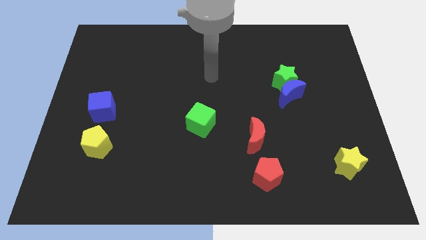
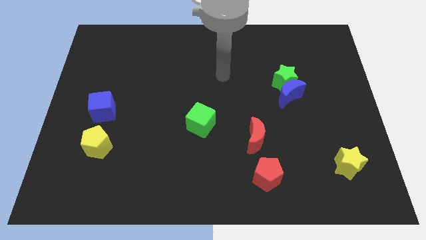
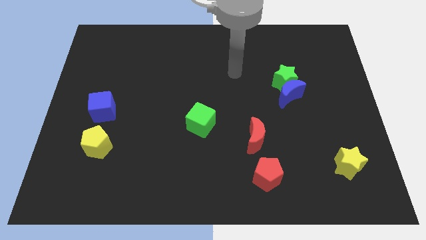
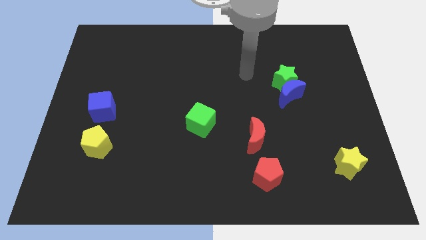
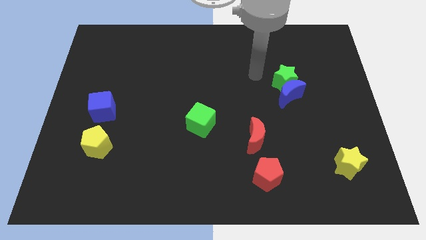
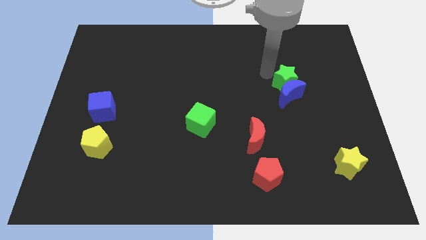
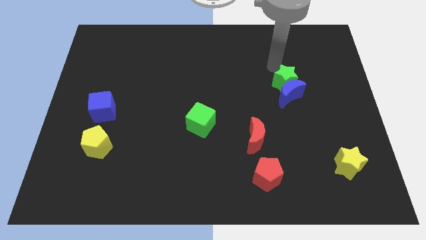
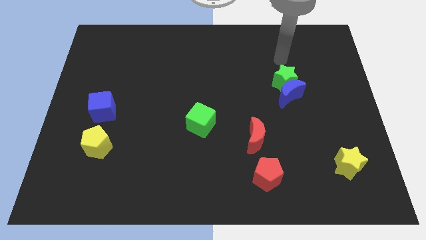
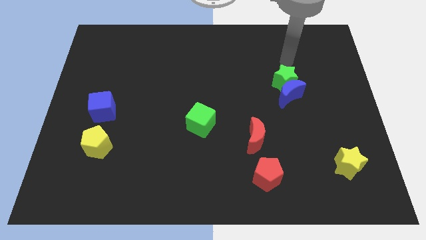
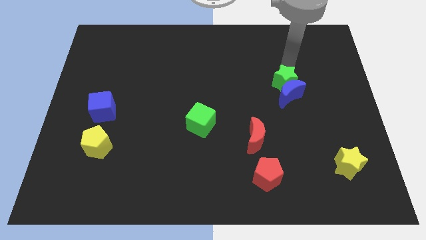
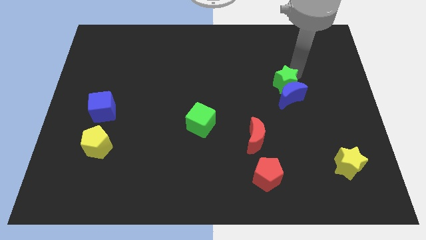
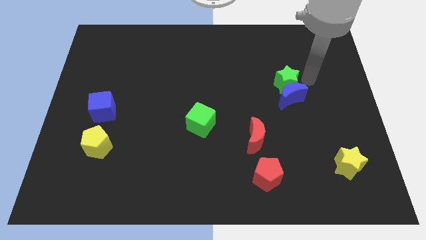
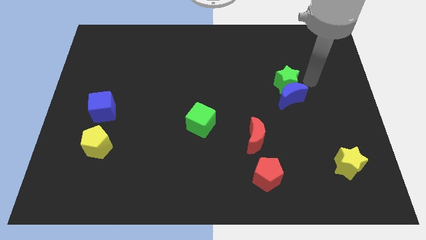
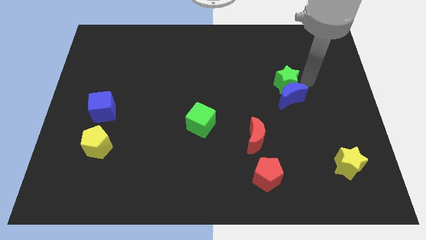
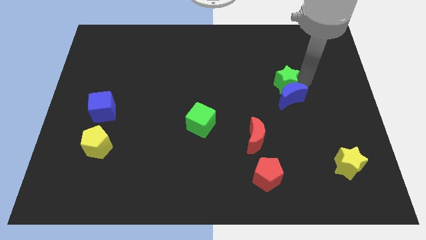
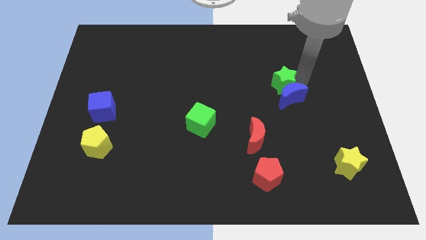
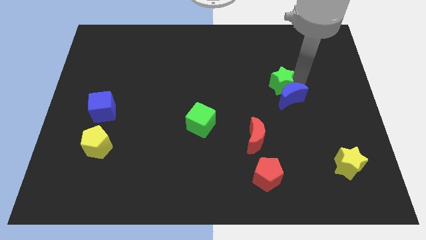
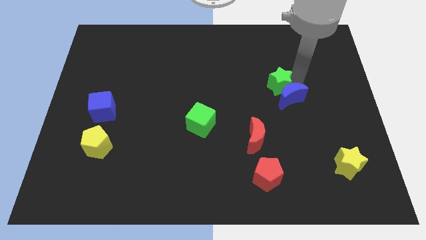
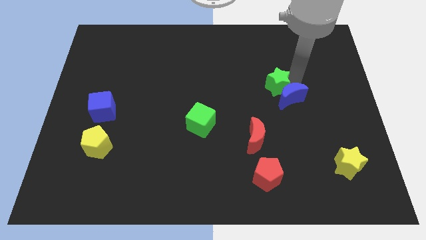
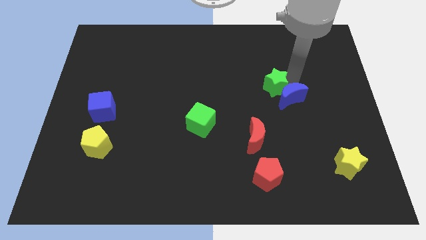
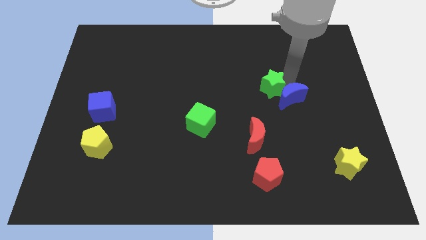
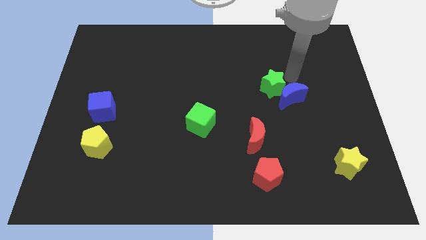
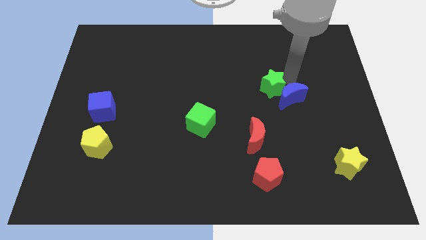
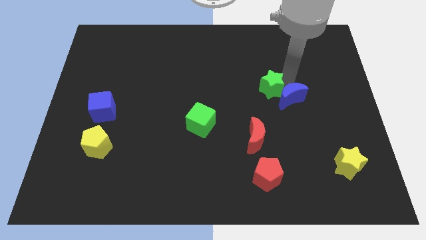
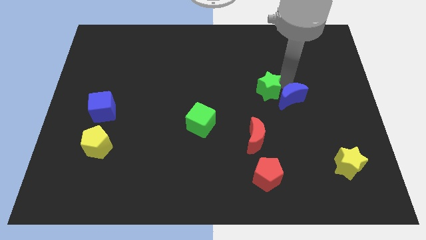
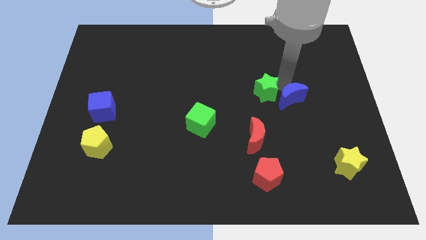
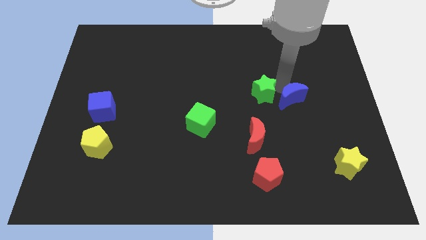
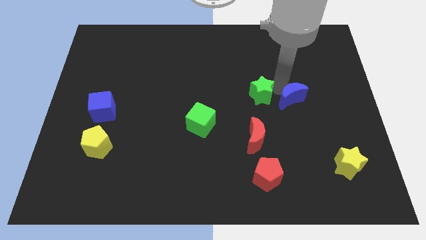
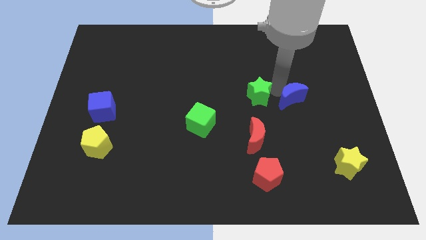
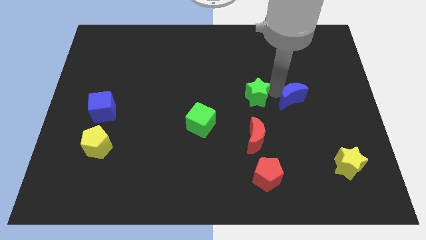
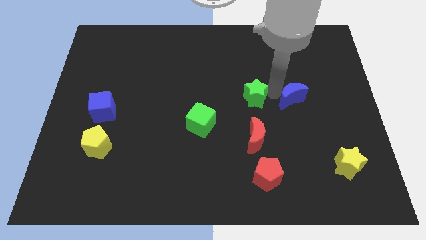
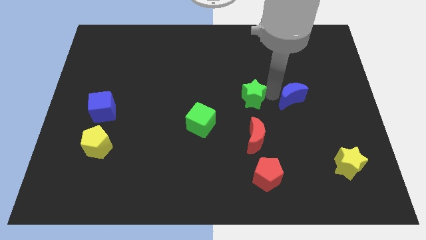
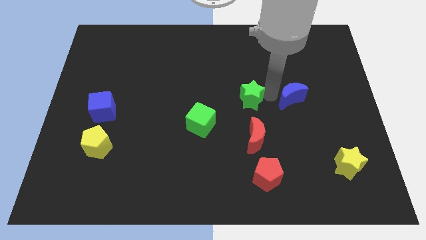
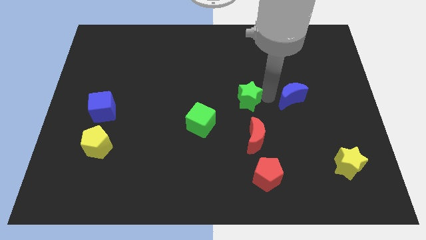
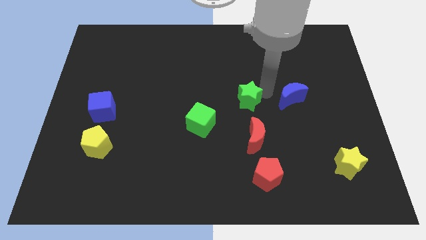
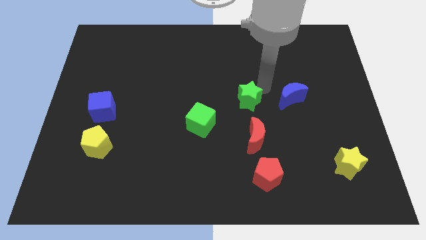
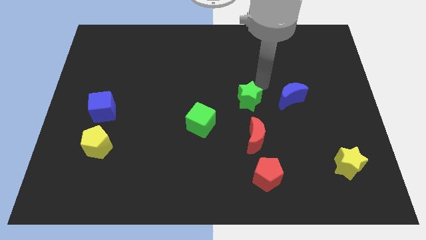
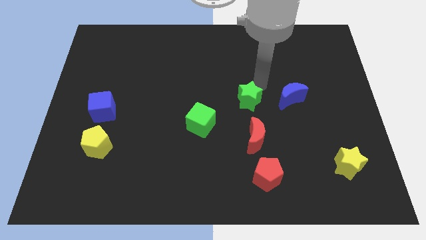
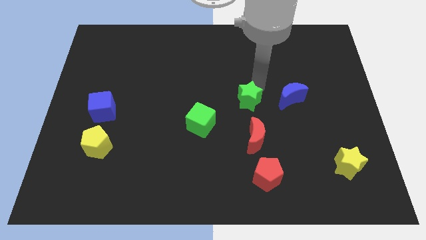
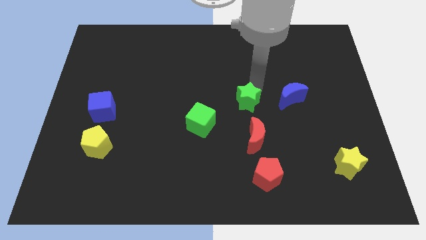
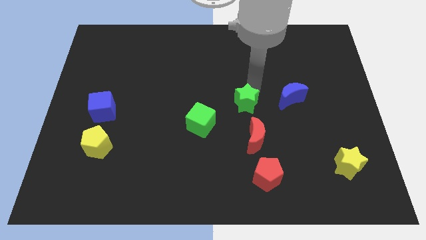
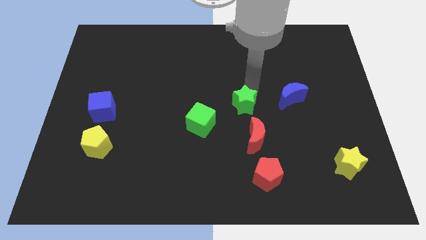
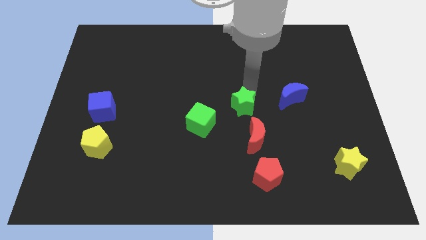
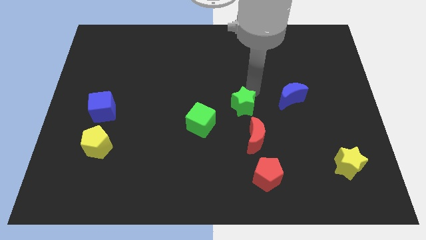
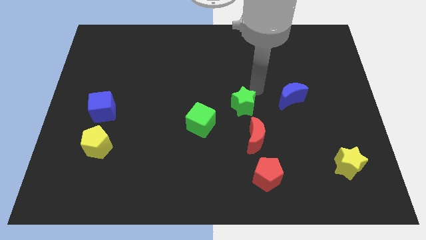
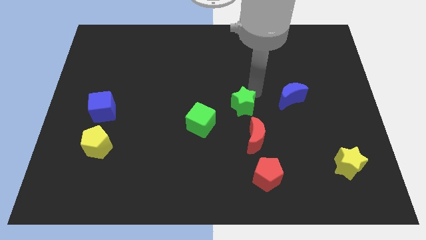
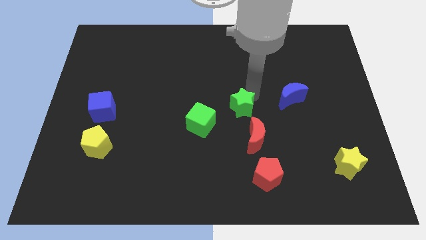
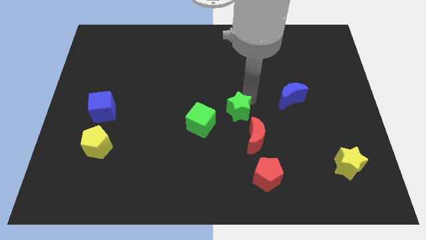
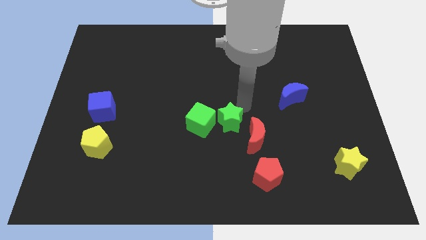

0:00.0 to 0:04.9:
push the green star to the left of the red moon

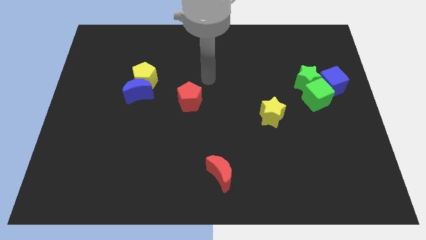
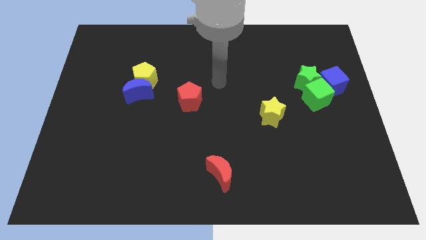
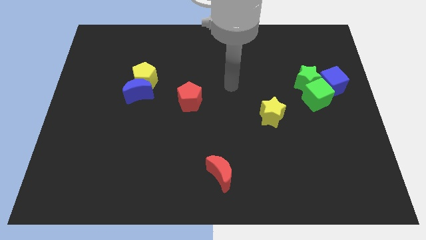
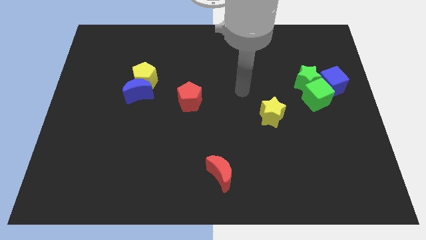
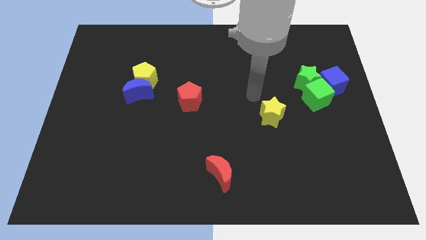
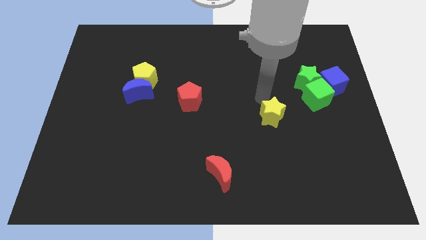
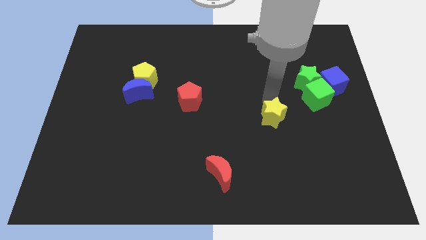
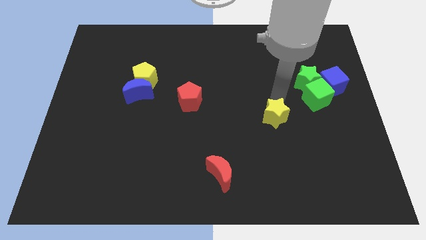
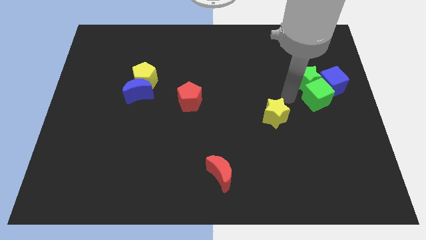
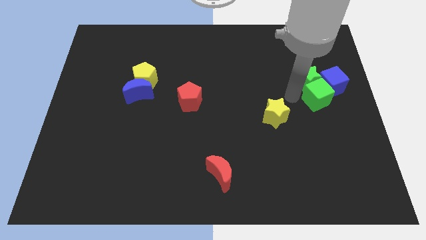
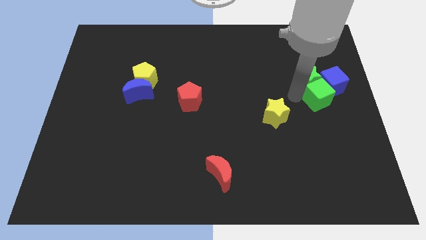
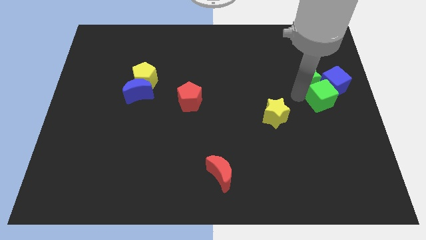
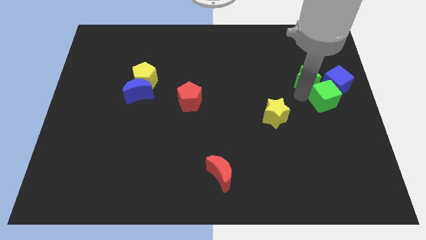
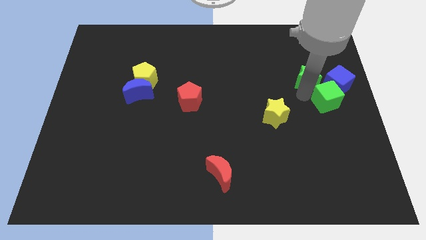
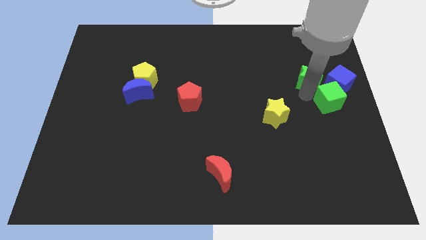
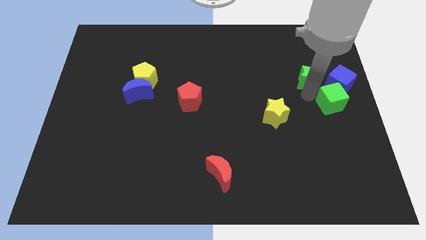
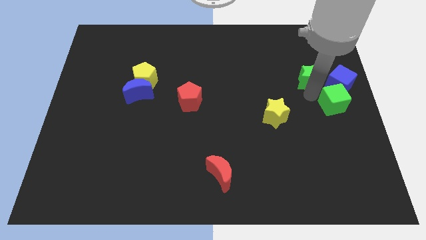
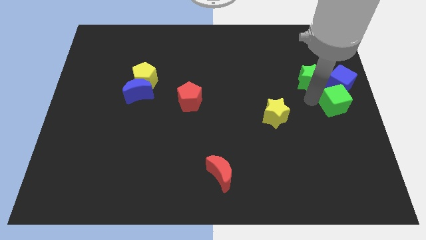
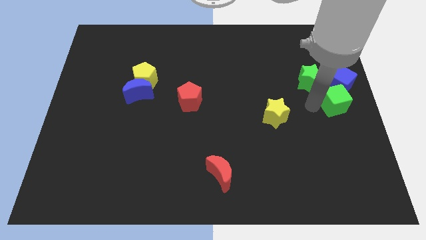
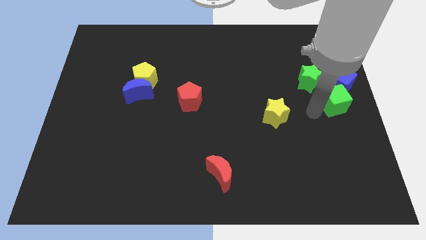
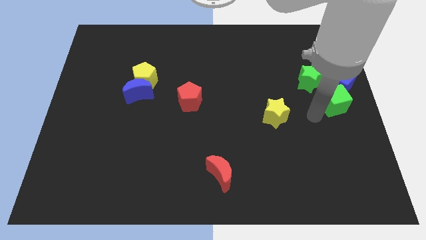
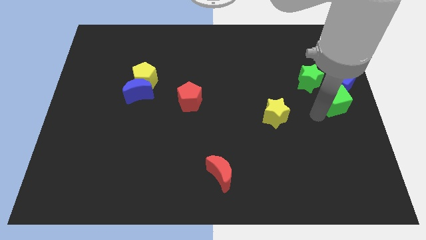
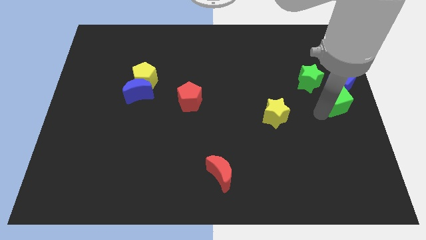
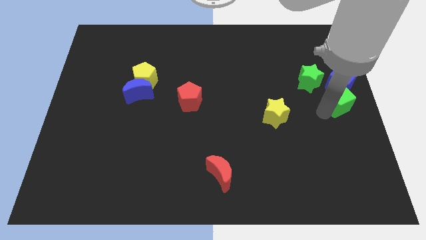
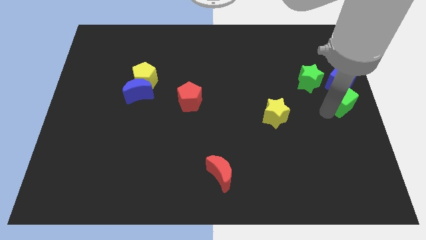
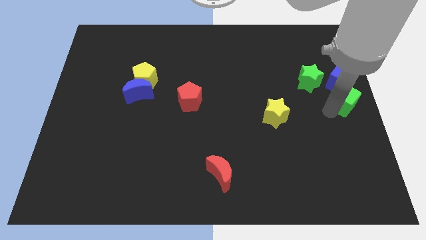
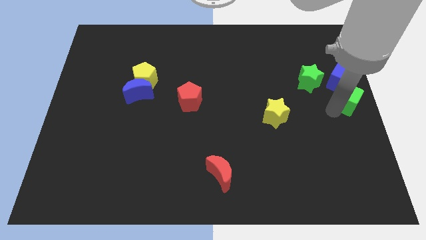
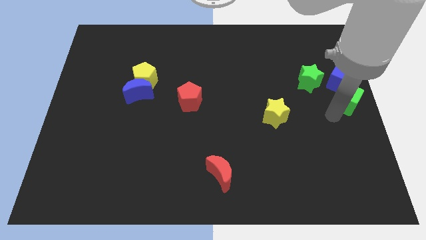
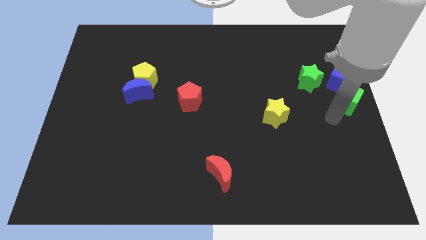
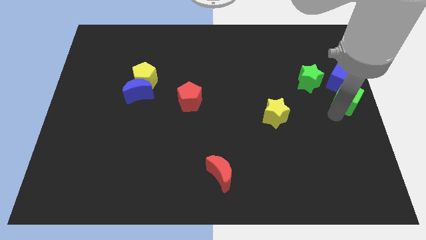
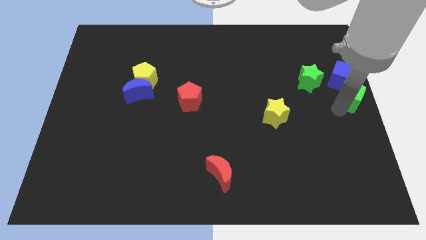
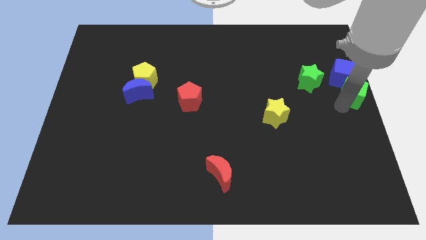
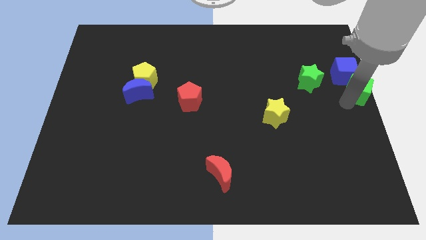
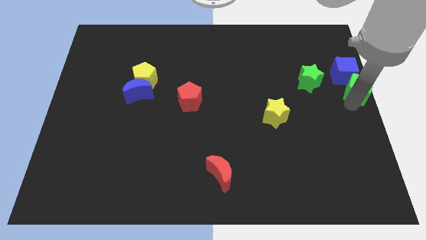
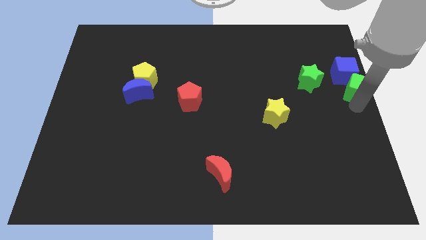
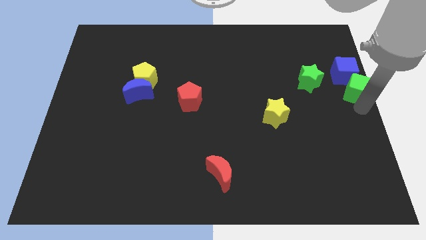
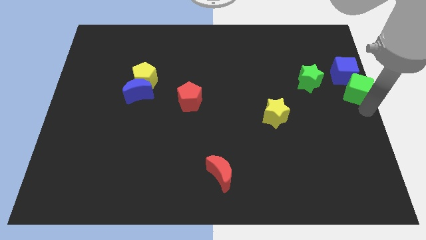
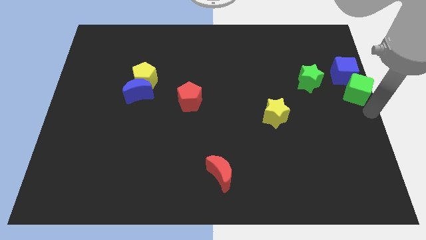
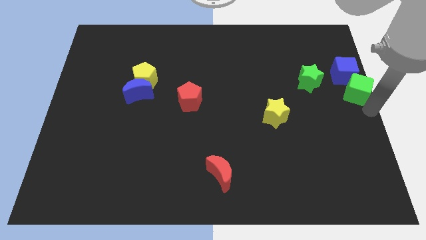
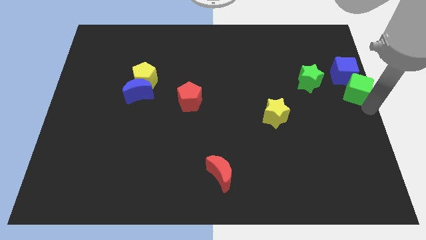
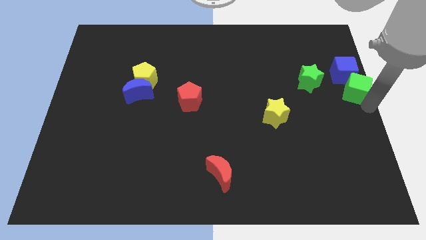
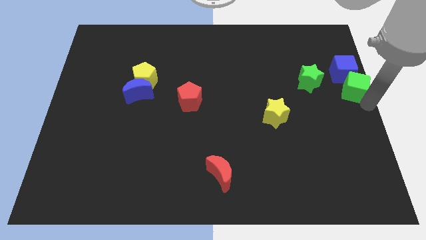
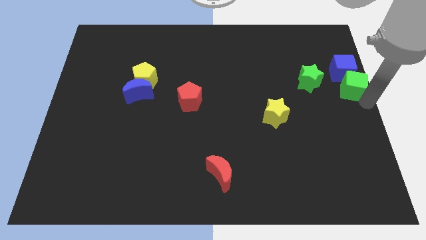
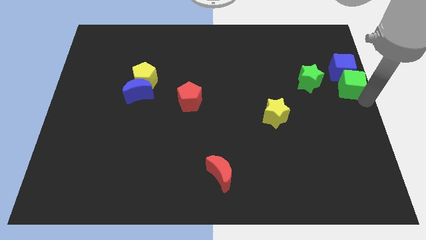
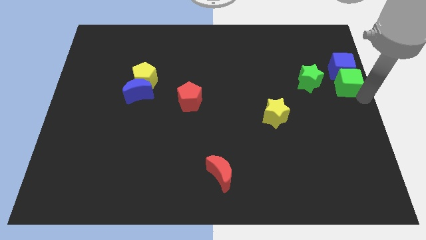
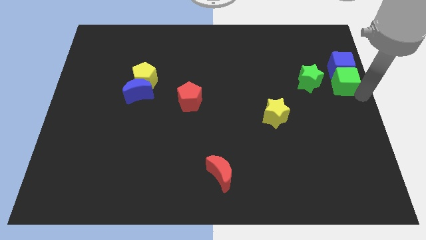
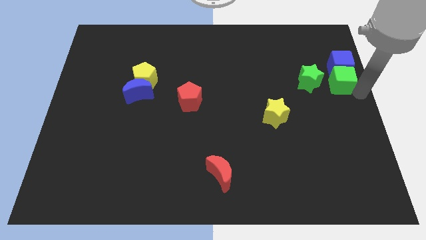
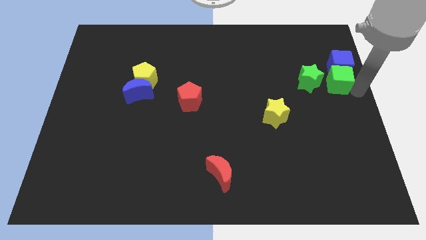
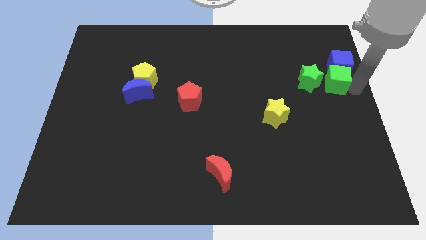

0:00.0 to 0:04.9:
move the green cube to the top right of the green star
